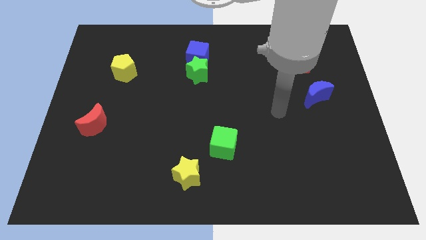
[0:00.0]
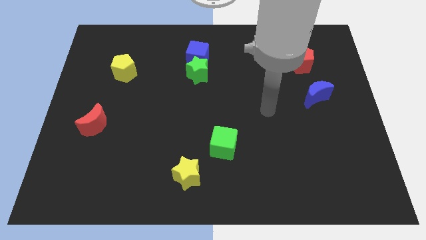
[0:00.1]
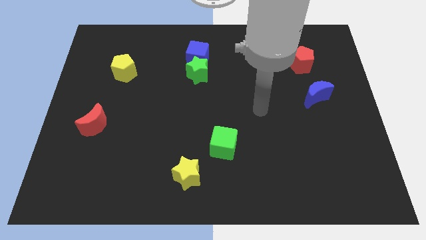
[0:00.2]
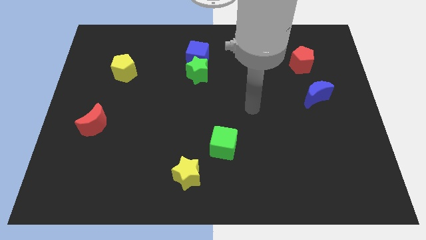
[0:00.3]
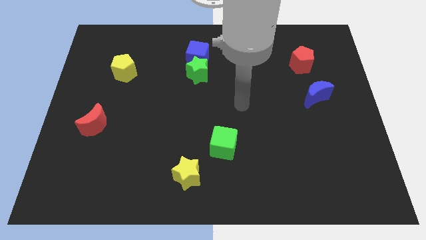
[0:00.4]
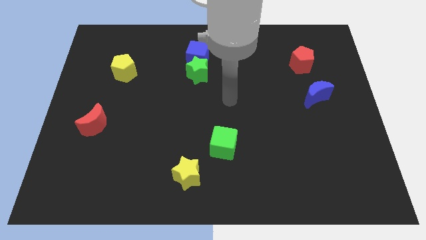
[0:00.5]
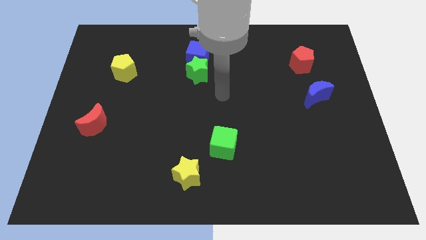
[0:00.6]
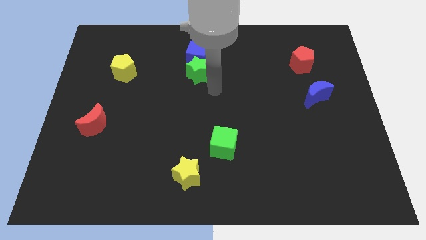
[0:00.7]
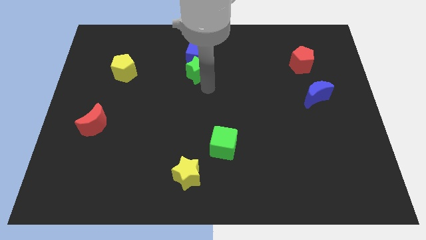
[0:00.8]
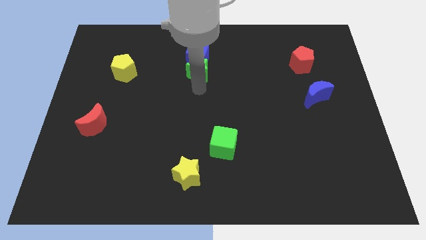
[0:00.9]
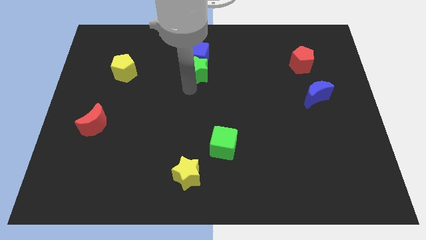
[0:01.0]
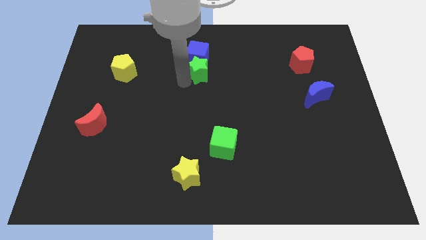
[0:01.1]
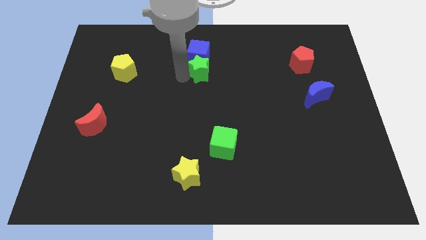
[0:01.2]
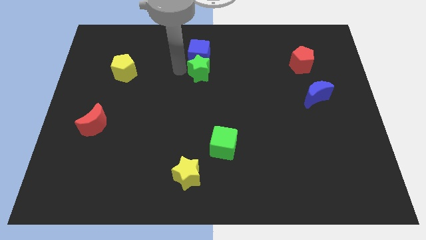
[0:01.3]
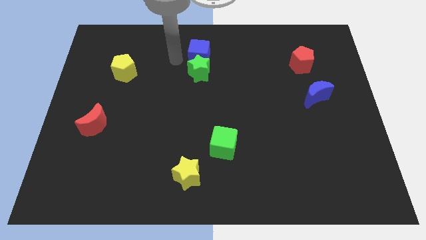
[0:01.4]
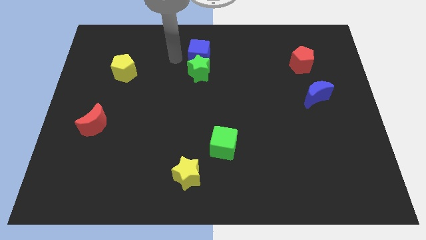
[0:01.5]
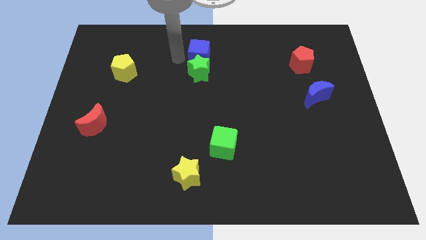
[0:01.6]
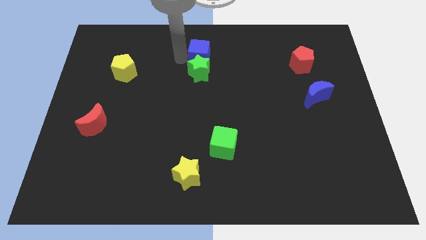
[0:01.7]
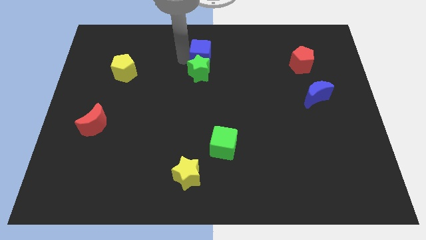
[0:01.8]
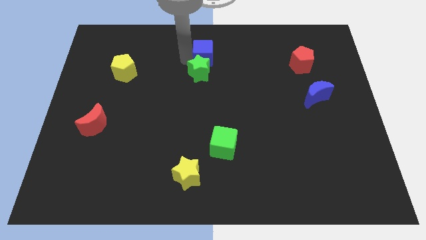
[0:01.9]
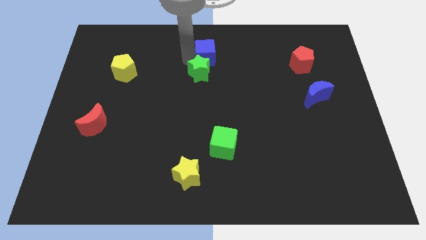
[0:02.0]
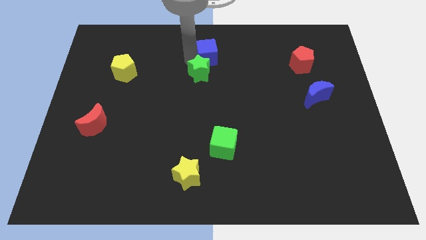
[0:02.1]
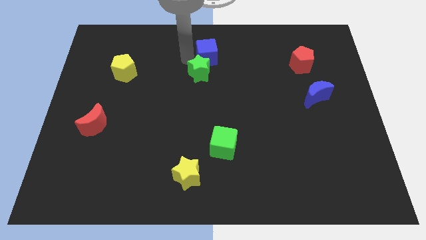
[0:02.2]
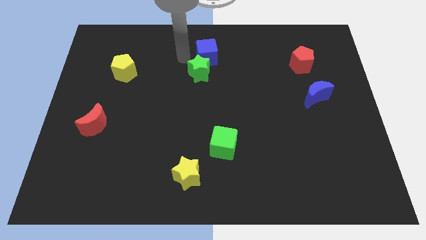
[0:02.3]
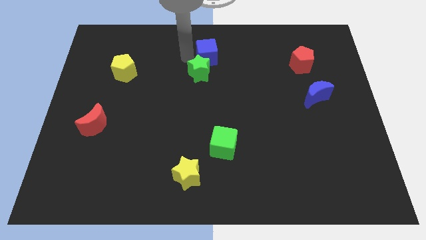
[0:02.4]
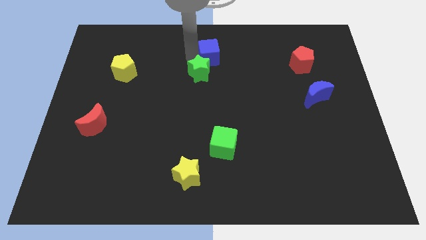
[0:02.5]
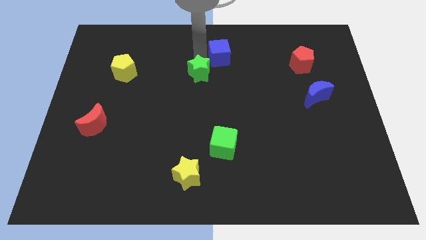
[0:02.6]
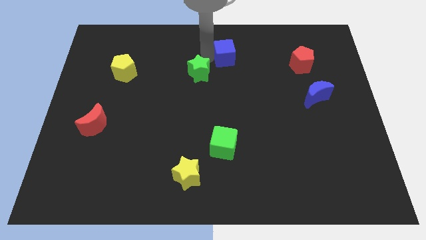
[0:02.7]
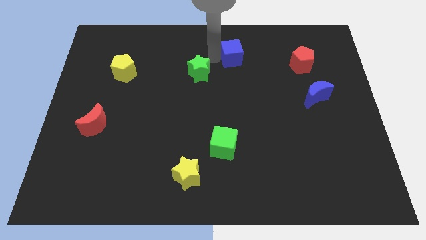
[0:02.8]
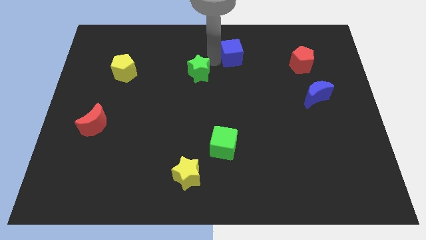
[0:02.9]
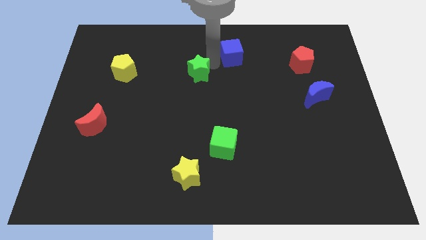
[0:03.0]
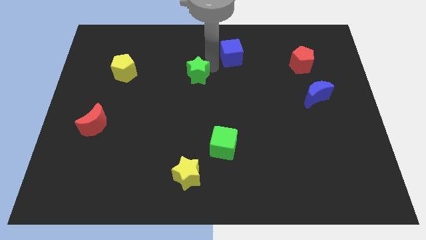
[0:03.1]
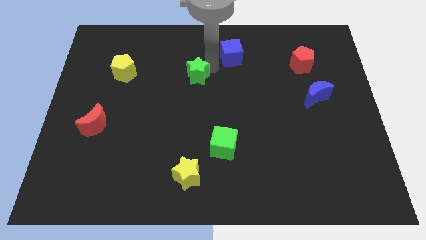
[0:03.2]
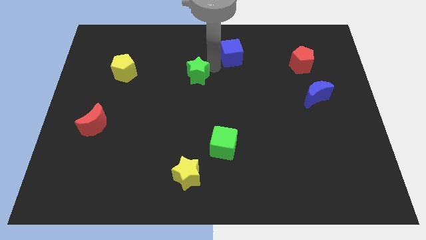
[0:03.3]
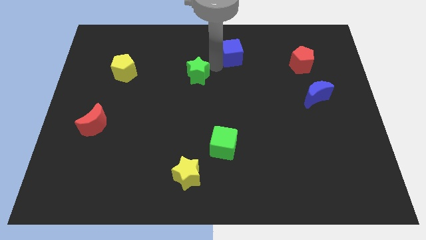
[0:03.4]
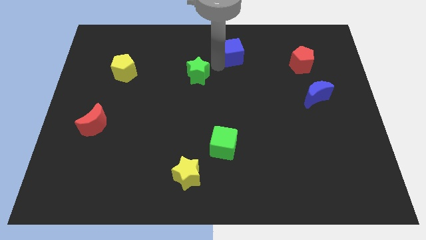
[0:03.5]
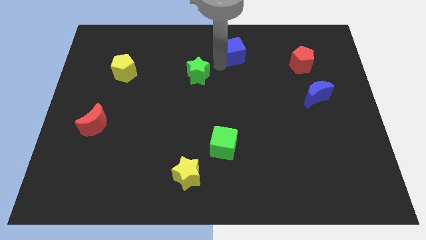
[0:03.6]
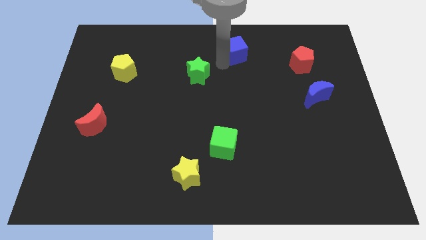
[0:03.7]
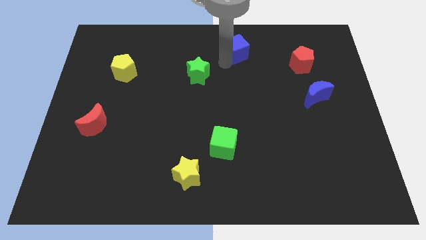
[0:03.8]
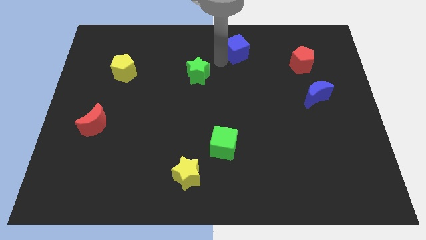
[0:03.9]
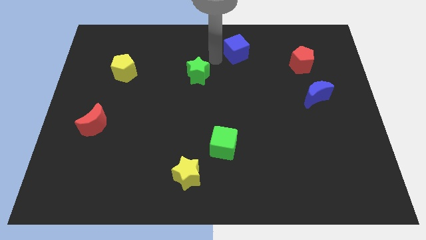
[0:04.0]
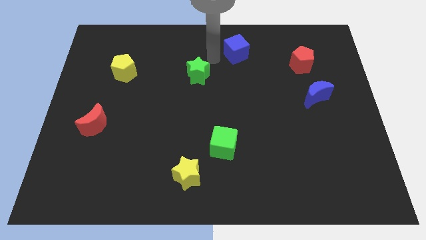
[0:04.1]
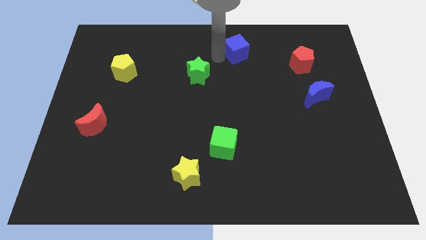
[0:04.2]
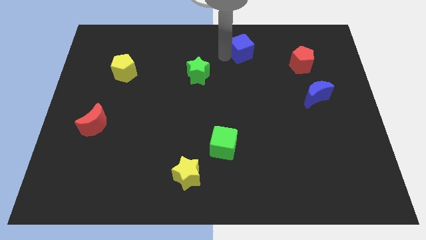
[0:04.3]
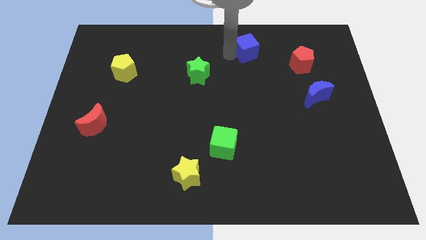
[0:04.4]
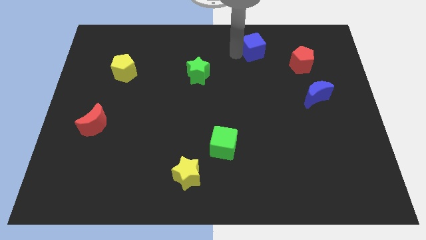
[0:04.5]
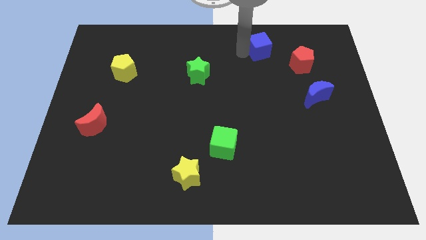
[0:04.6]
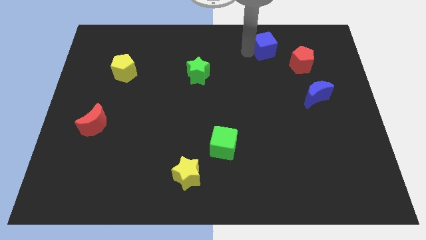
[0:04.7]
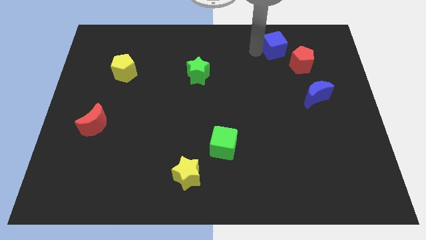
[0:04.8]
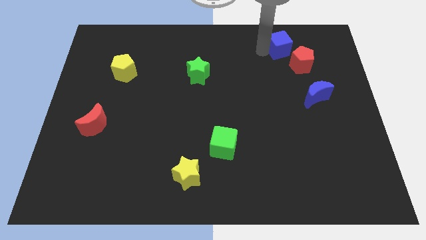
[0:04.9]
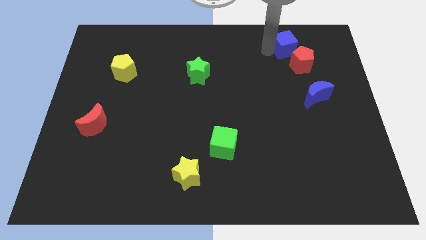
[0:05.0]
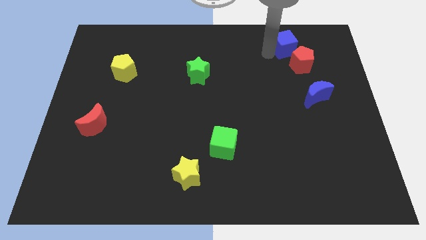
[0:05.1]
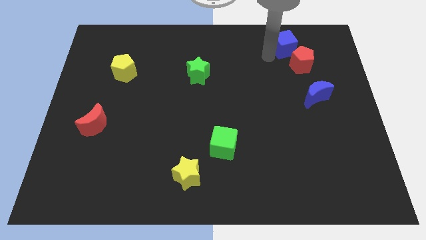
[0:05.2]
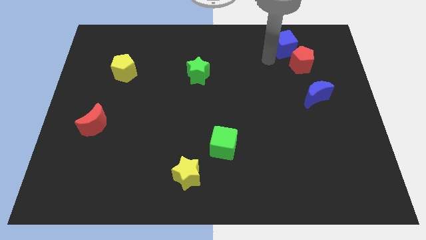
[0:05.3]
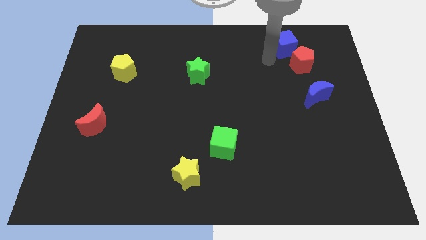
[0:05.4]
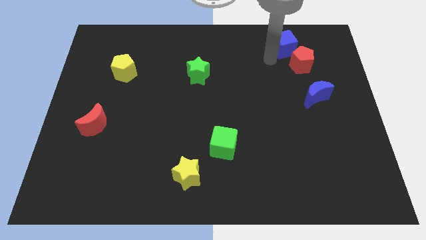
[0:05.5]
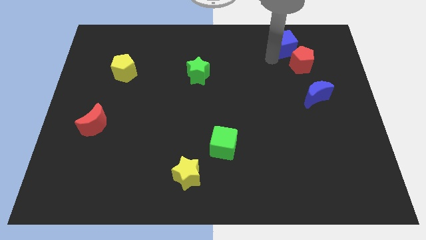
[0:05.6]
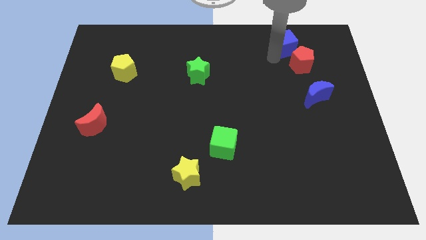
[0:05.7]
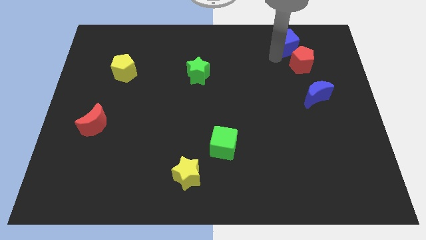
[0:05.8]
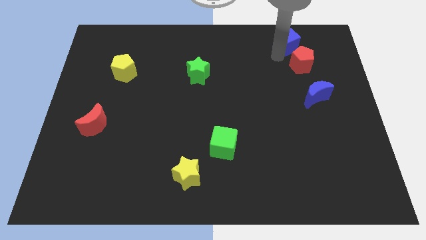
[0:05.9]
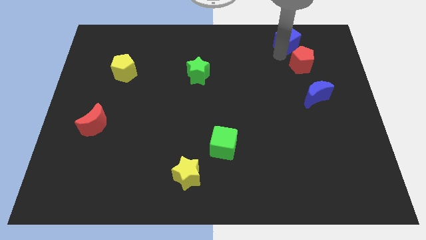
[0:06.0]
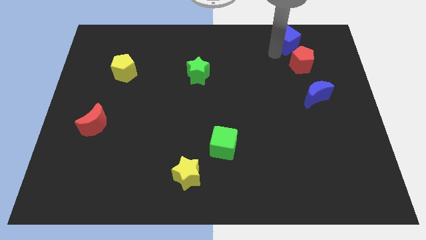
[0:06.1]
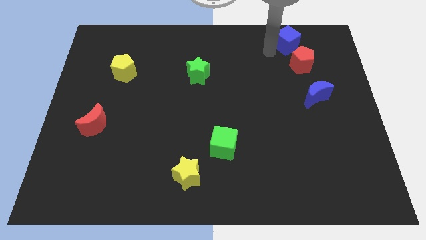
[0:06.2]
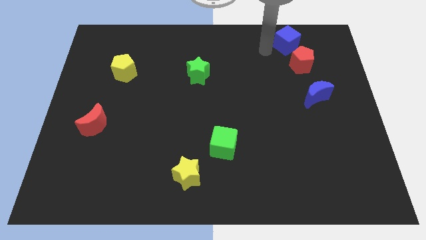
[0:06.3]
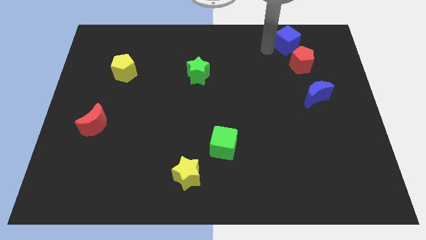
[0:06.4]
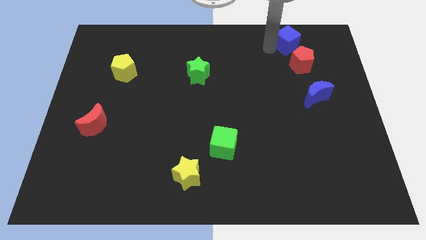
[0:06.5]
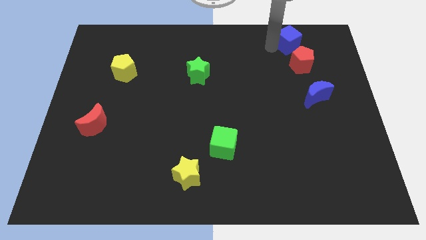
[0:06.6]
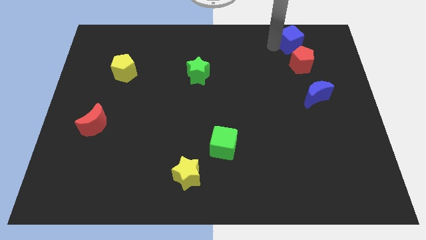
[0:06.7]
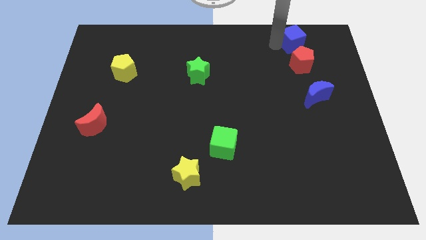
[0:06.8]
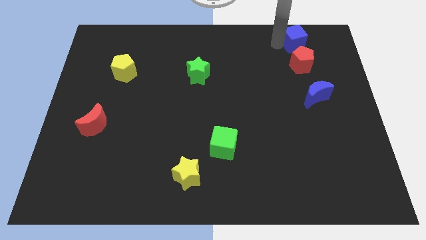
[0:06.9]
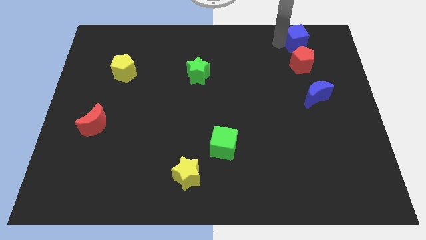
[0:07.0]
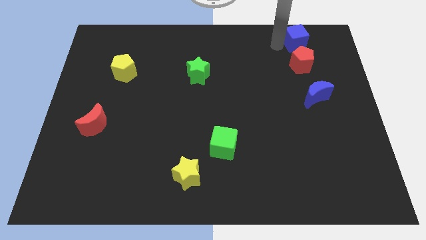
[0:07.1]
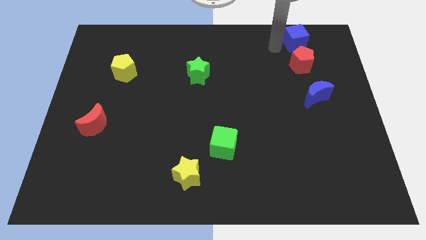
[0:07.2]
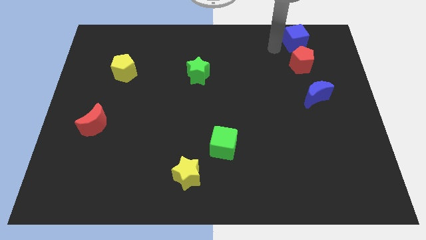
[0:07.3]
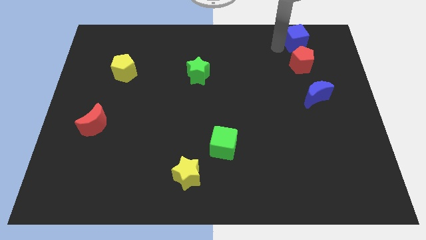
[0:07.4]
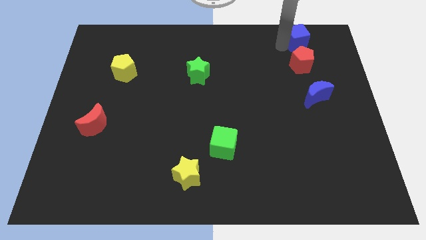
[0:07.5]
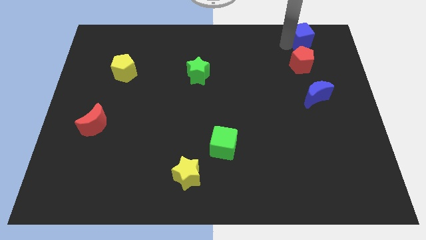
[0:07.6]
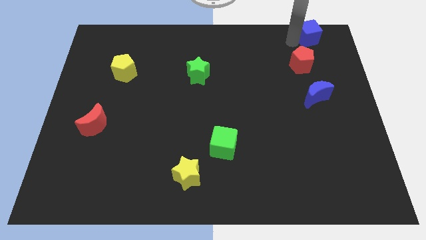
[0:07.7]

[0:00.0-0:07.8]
slide the blue cube to the top right
